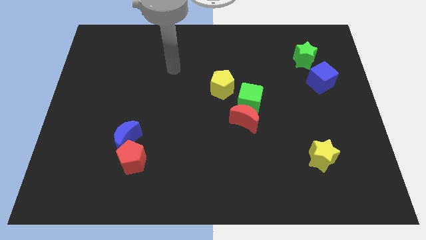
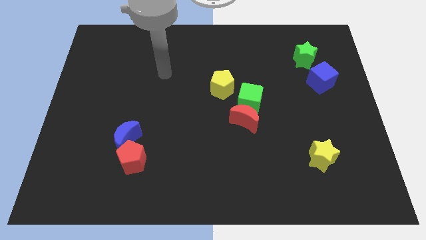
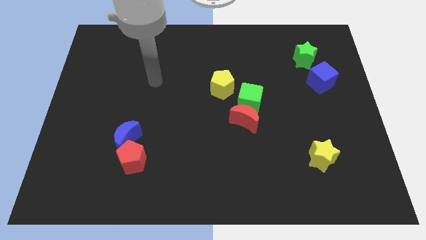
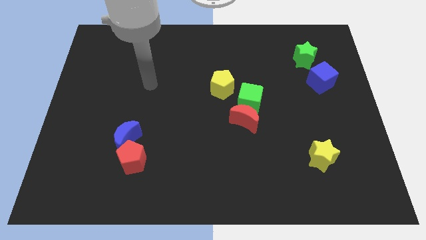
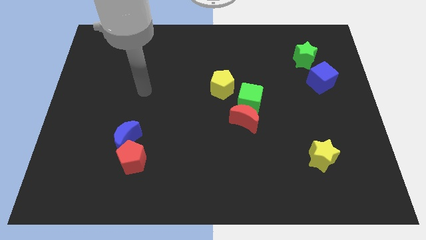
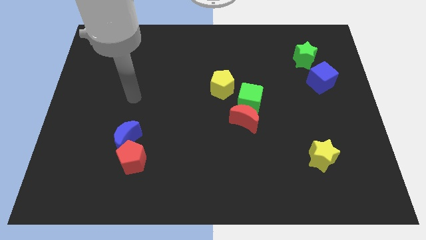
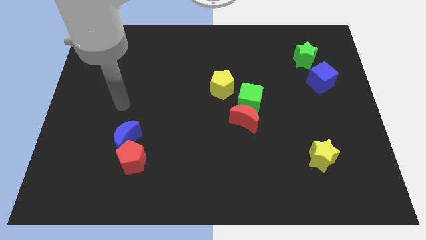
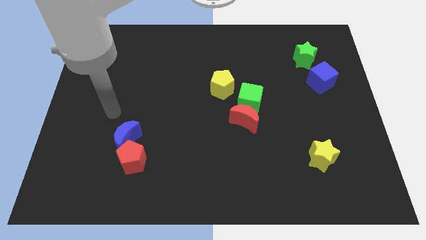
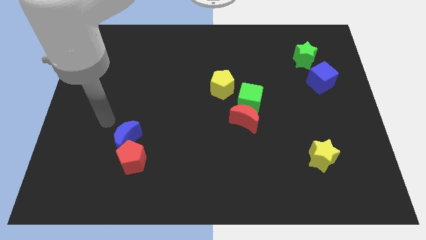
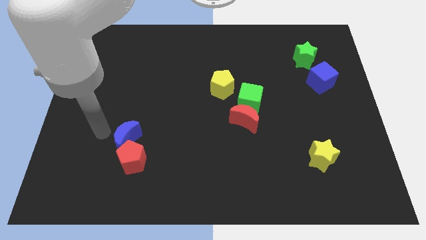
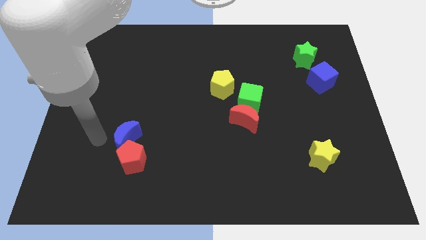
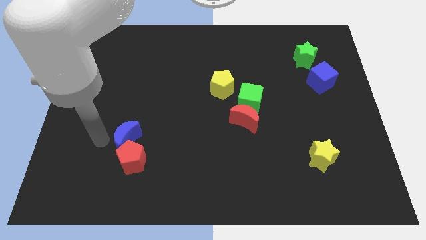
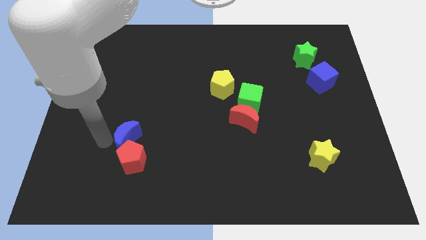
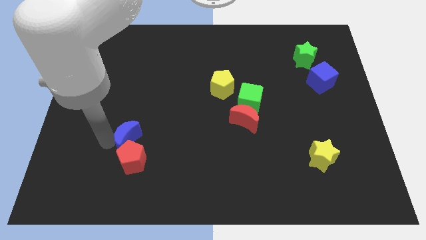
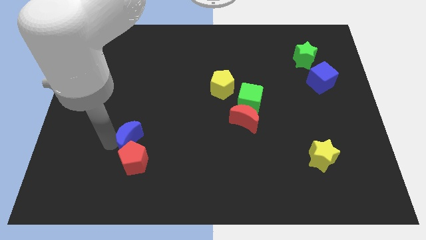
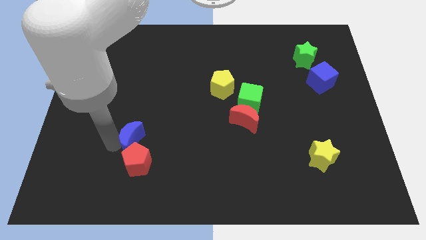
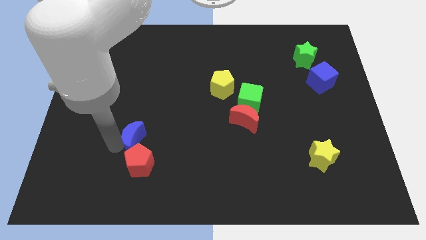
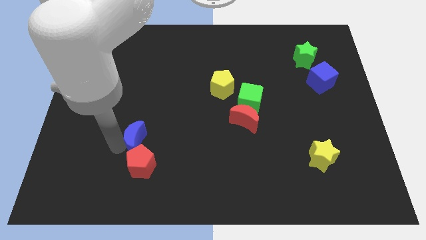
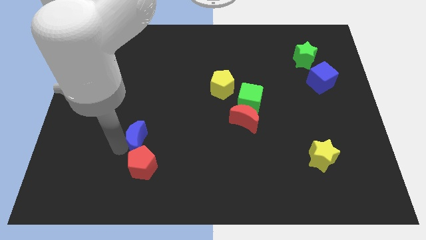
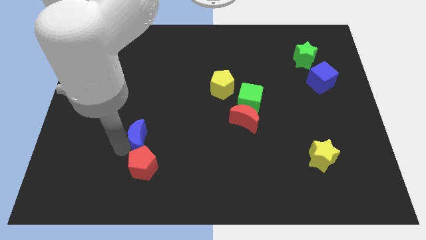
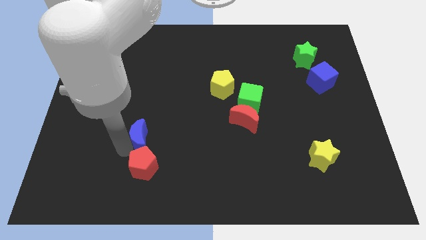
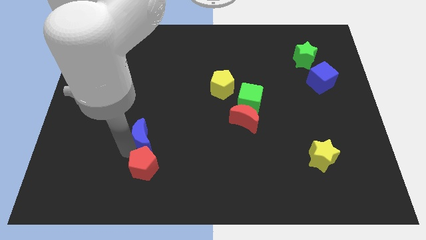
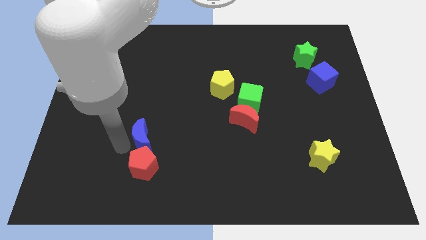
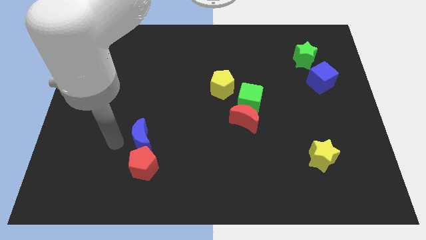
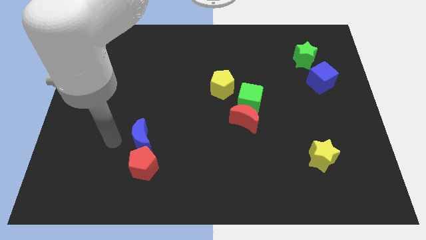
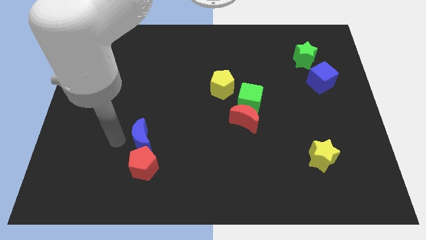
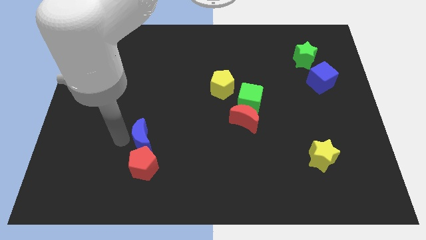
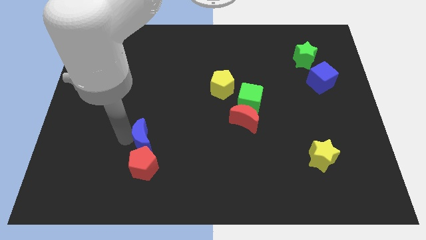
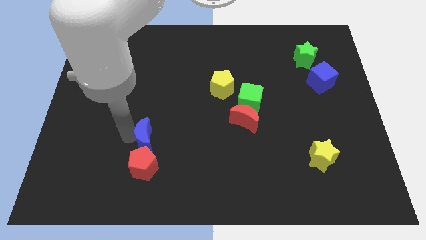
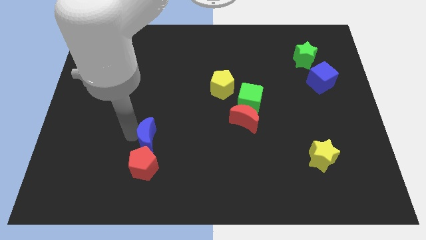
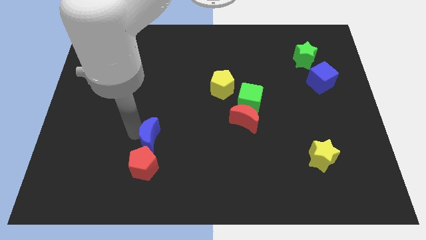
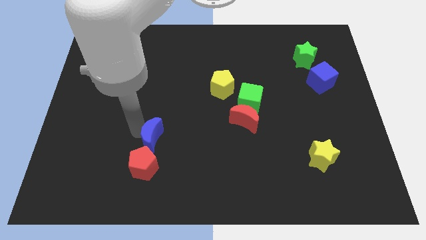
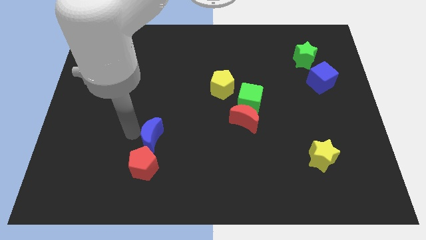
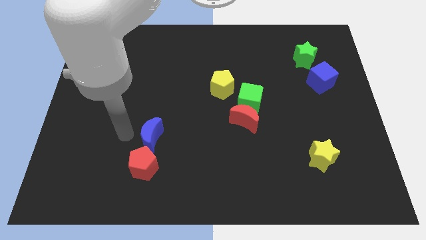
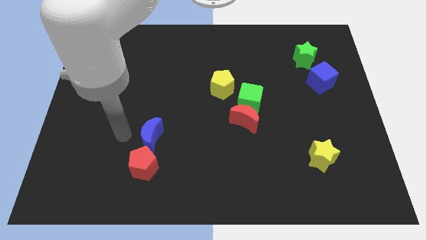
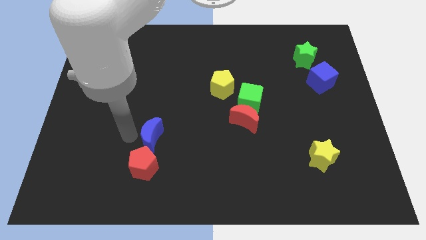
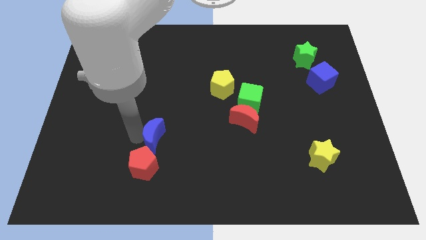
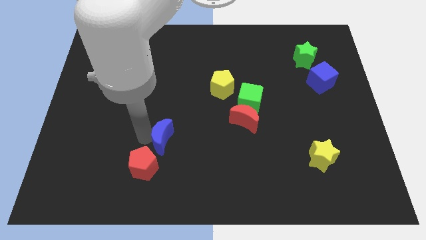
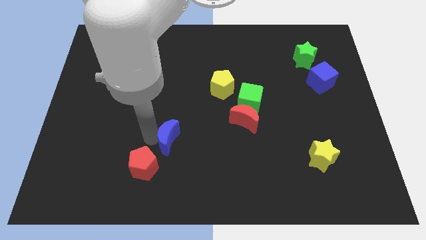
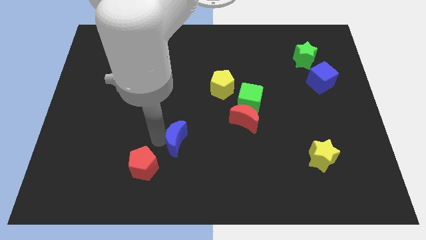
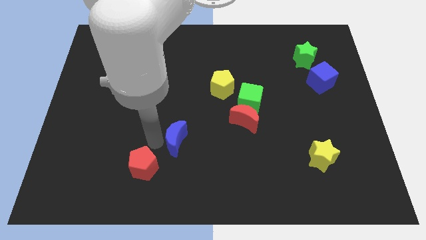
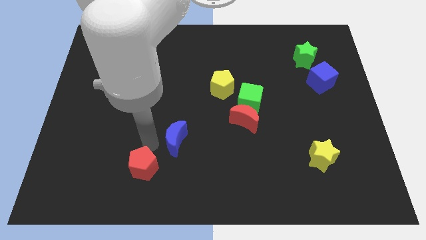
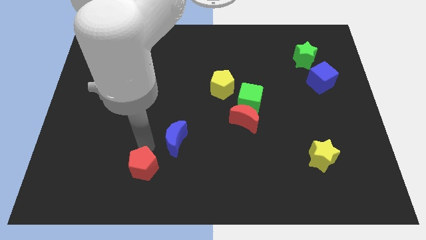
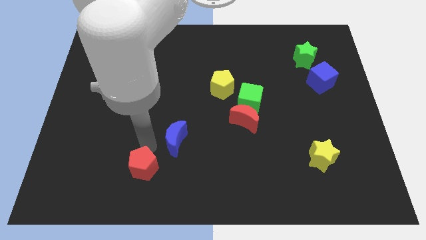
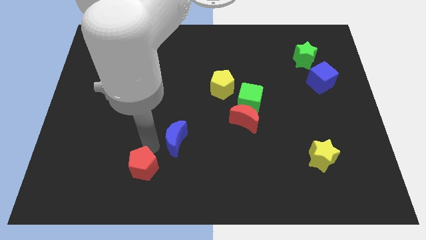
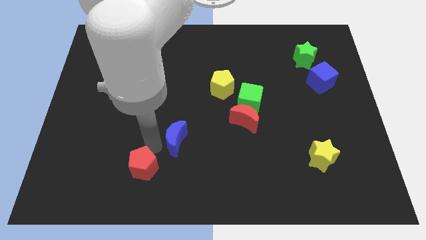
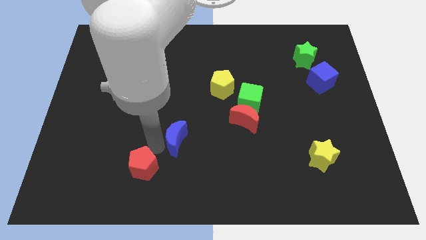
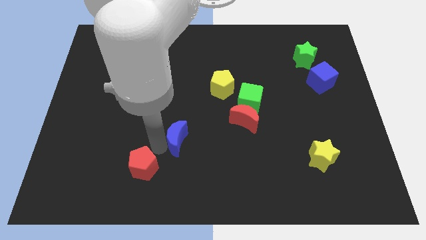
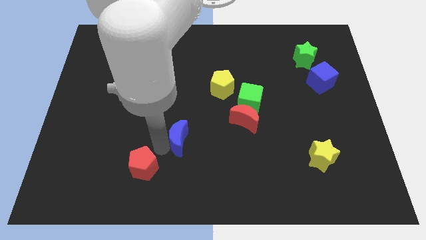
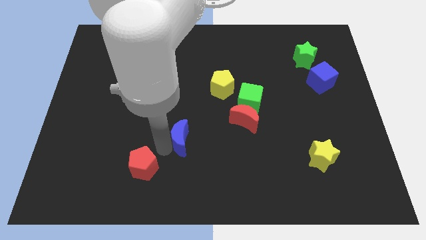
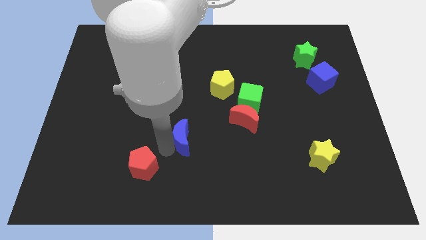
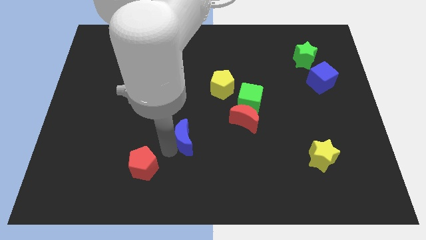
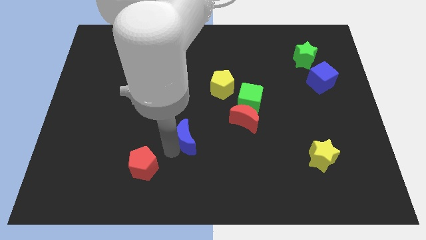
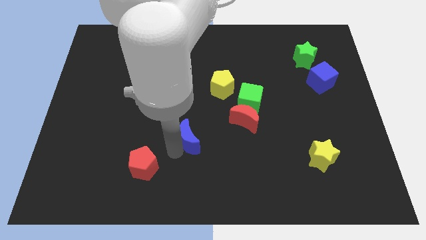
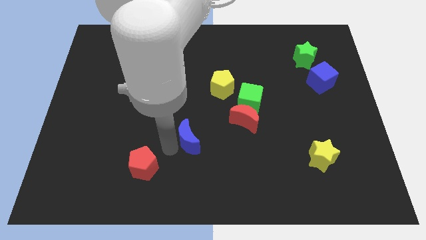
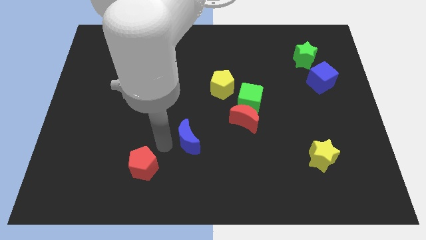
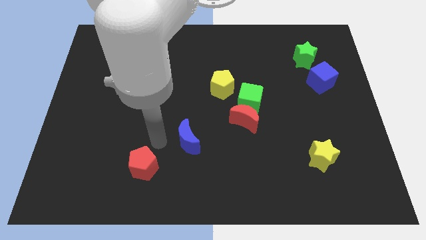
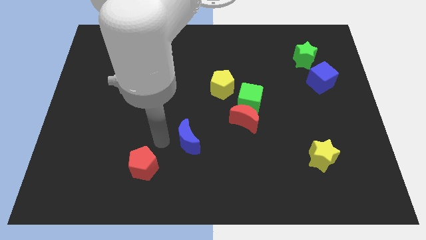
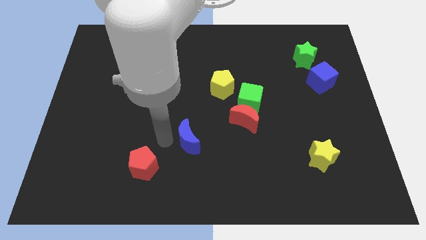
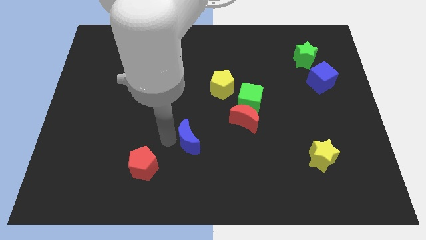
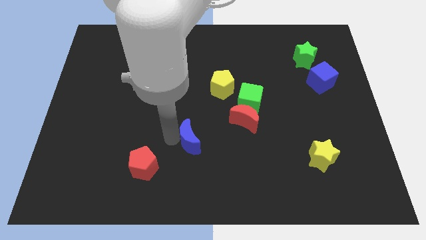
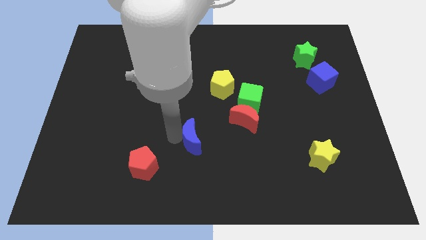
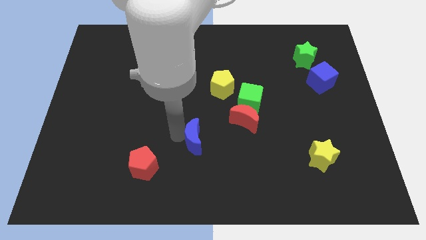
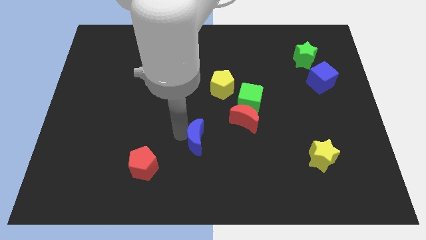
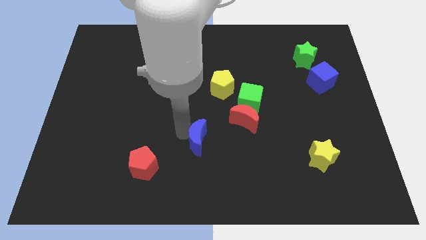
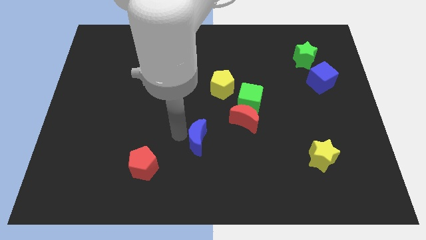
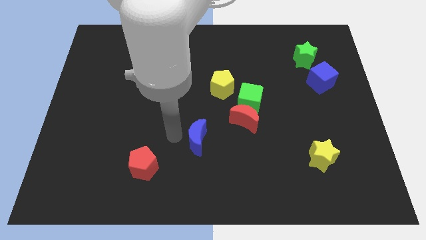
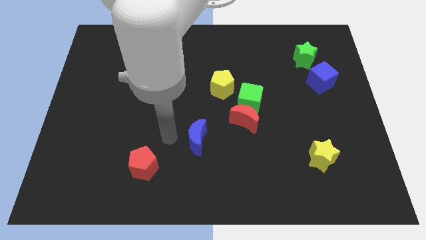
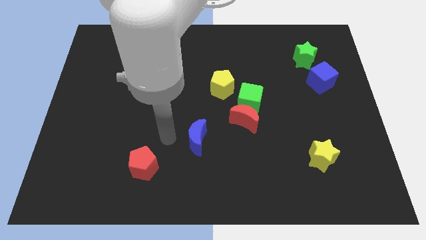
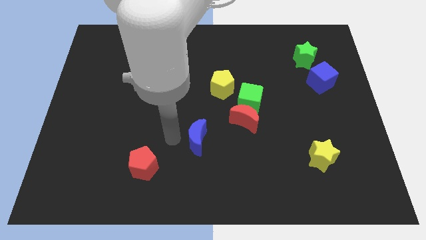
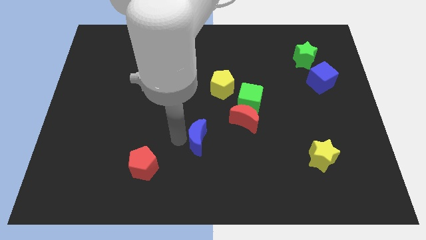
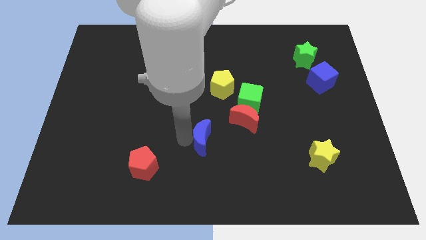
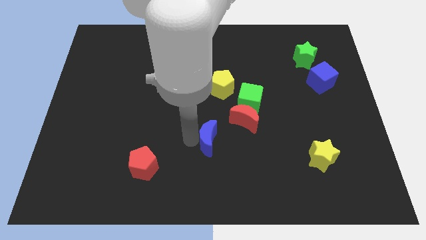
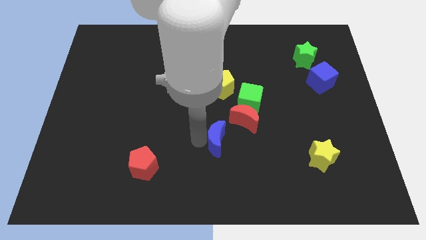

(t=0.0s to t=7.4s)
push the blue moon right

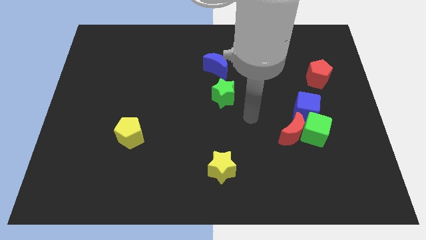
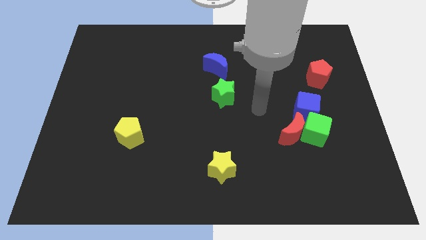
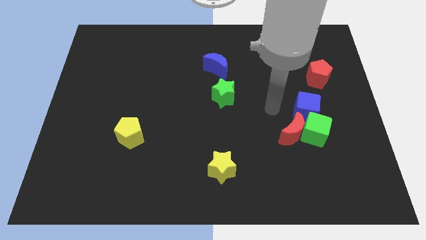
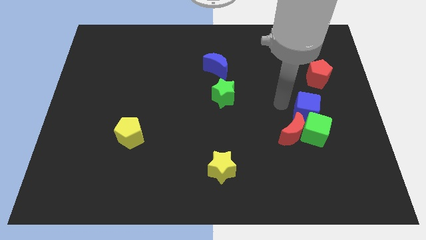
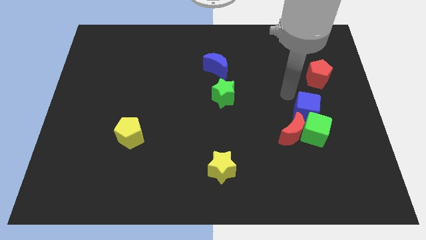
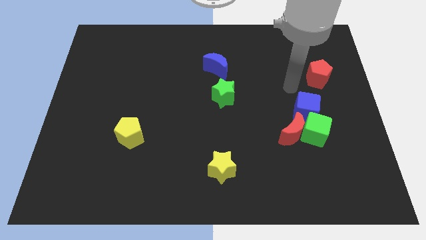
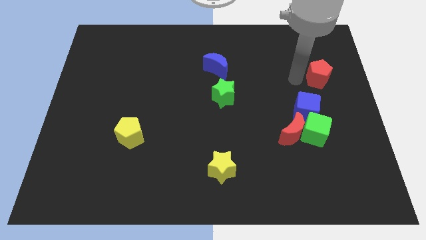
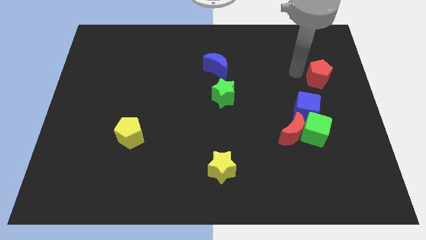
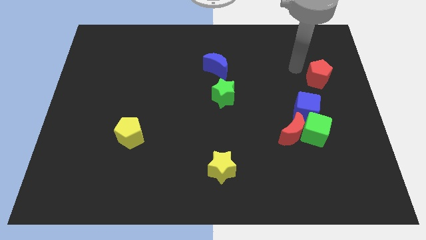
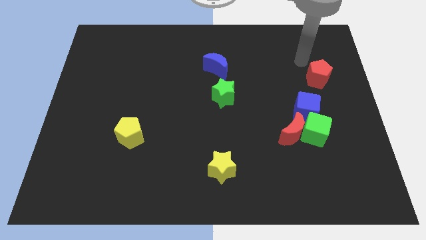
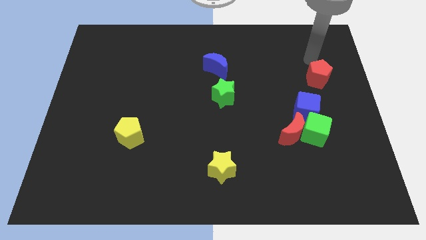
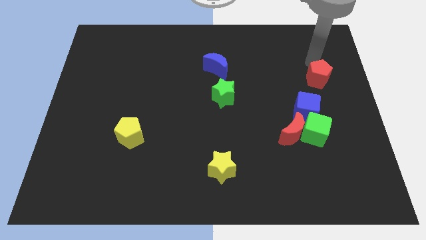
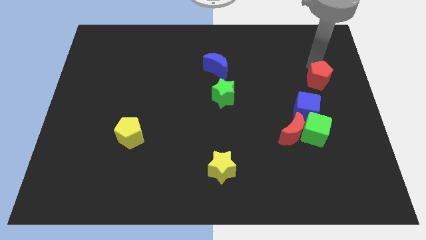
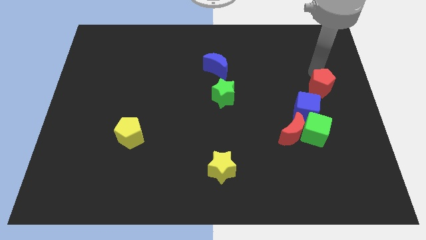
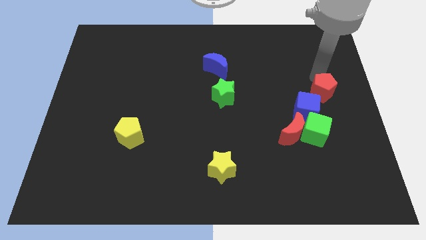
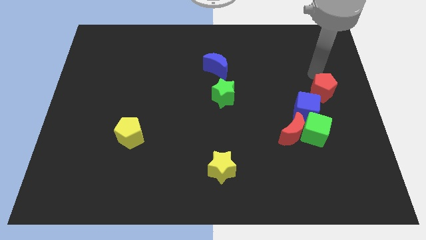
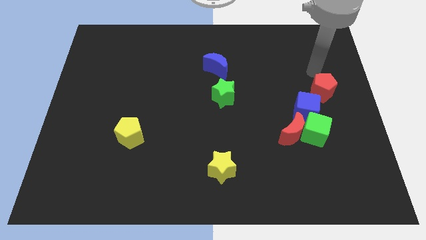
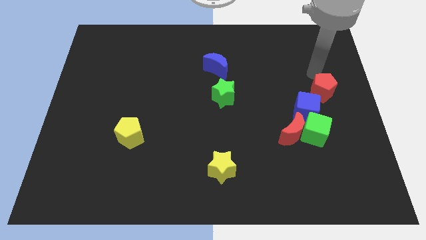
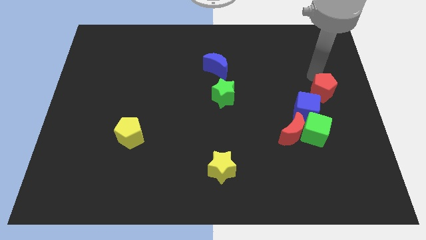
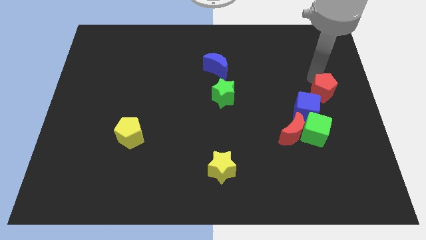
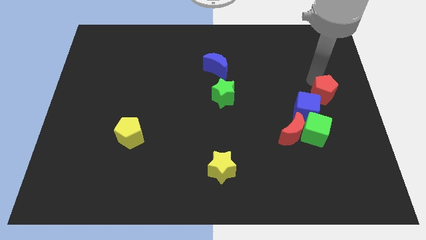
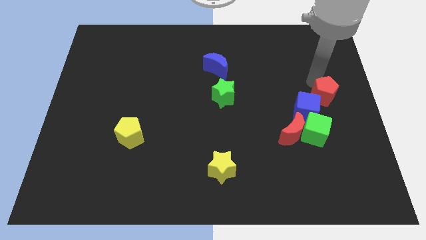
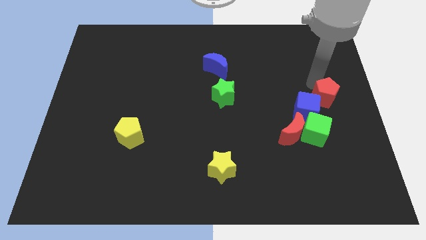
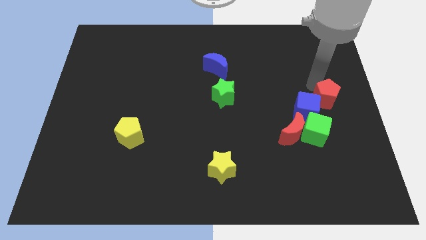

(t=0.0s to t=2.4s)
move the red pentagon downwards a little
